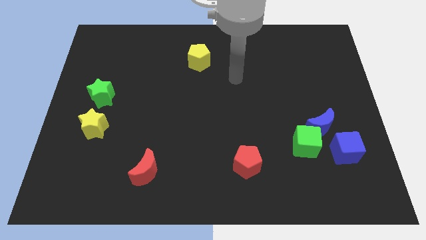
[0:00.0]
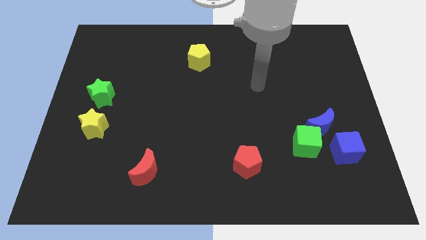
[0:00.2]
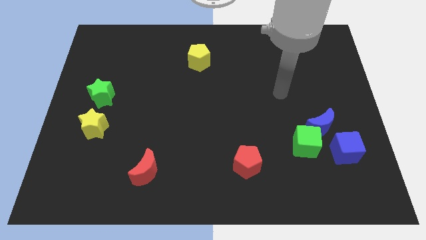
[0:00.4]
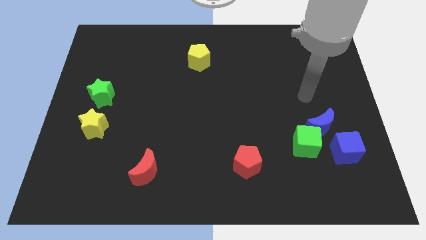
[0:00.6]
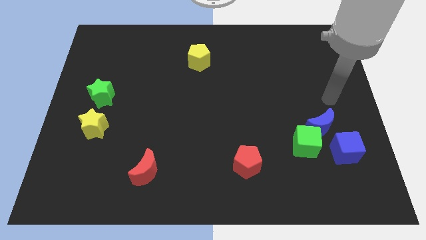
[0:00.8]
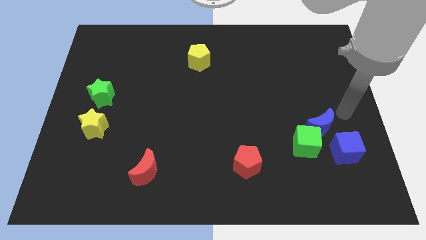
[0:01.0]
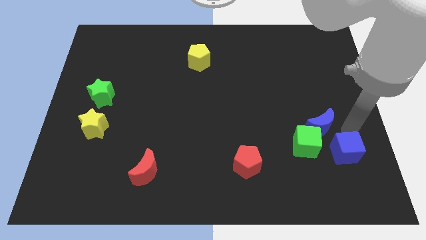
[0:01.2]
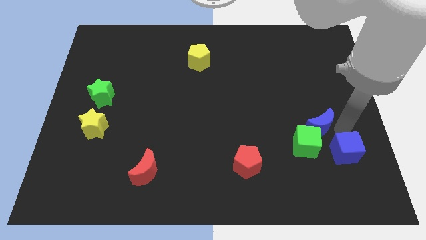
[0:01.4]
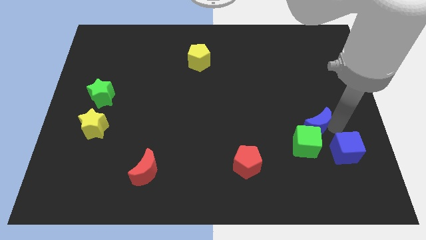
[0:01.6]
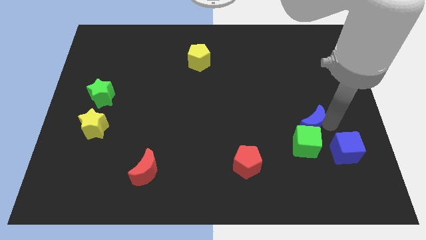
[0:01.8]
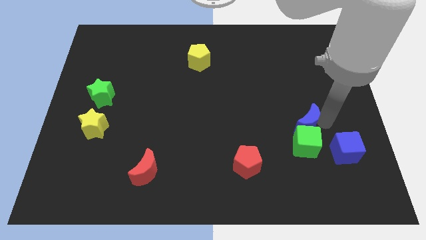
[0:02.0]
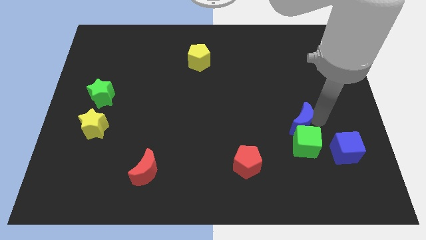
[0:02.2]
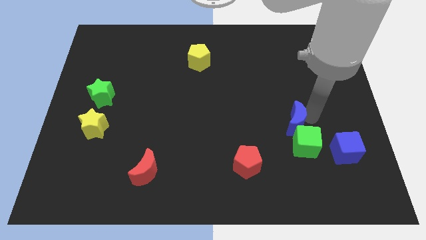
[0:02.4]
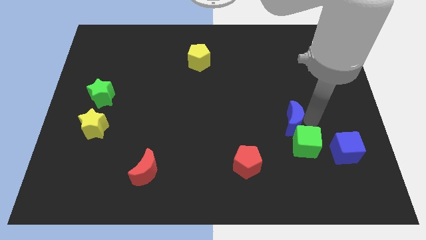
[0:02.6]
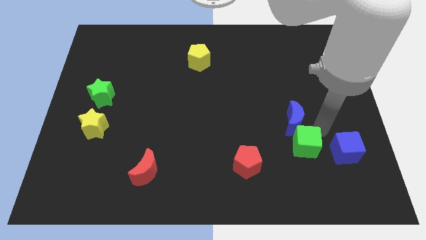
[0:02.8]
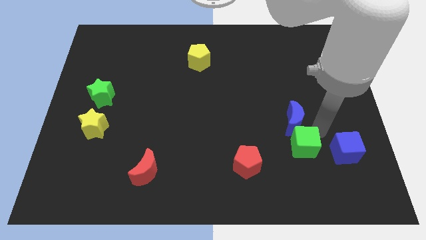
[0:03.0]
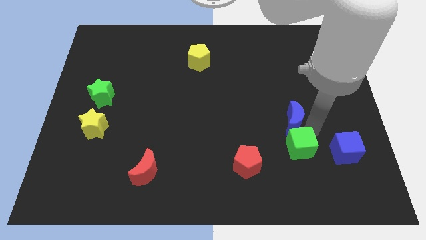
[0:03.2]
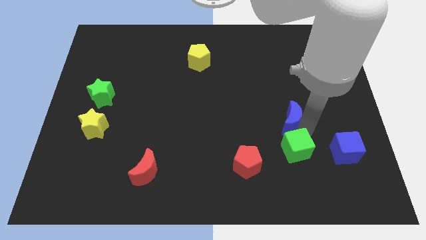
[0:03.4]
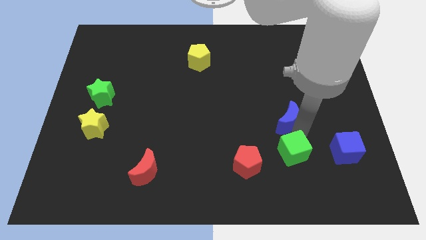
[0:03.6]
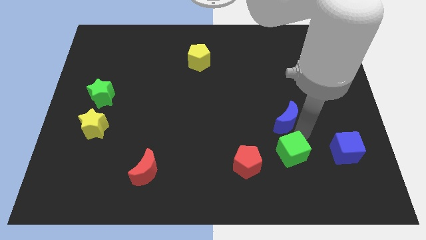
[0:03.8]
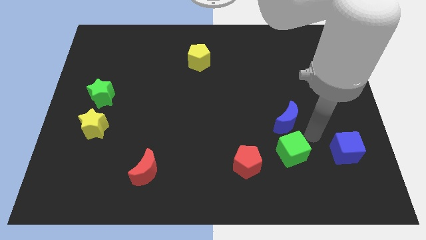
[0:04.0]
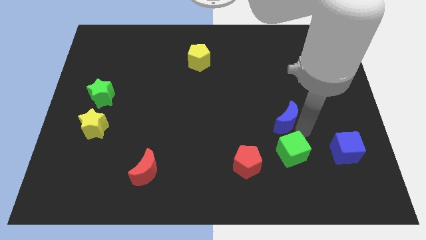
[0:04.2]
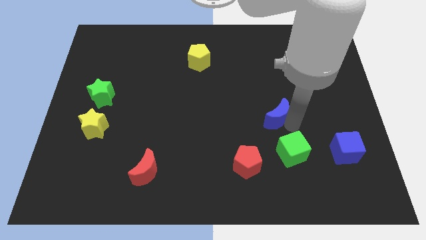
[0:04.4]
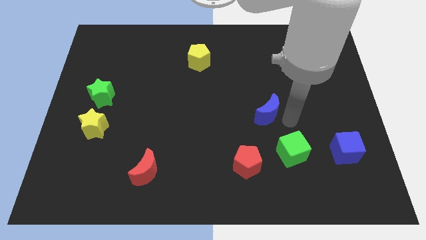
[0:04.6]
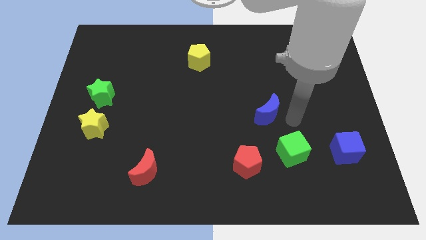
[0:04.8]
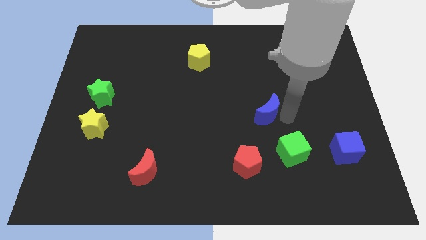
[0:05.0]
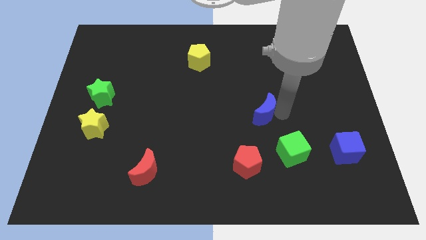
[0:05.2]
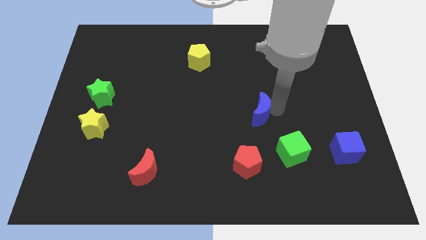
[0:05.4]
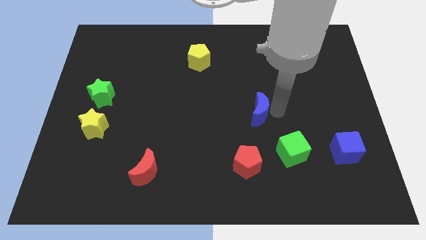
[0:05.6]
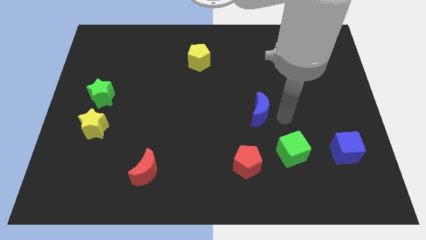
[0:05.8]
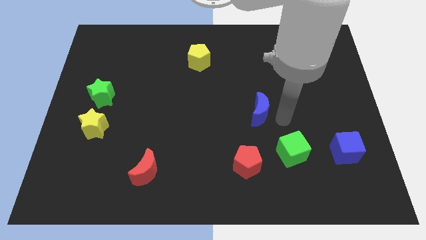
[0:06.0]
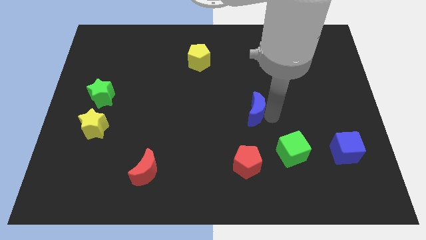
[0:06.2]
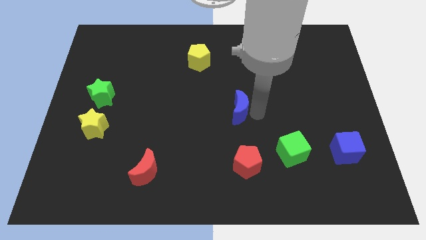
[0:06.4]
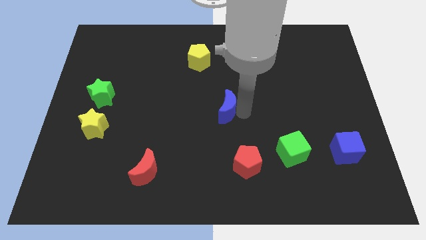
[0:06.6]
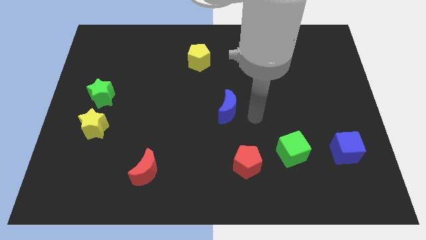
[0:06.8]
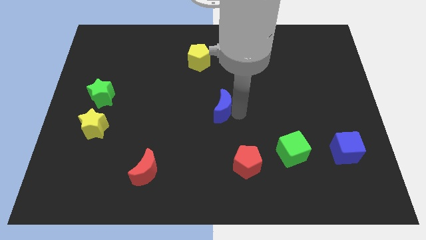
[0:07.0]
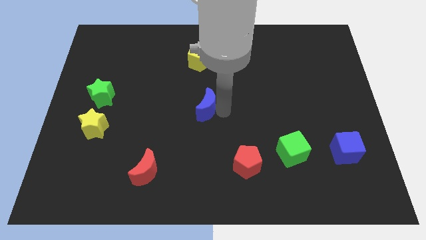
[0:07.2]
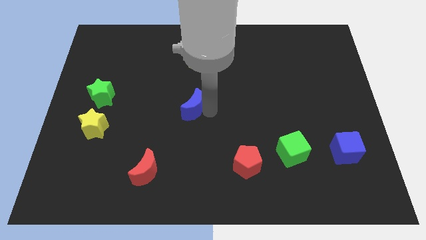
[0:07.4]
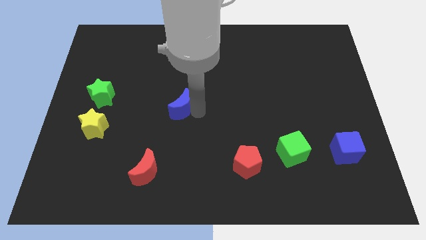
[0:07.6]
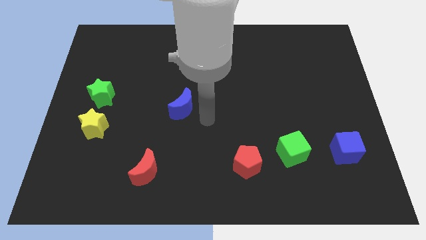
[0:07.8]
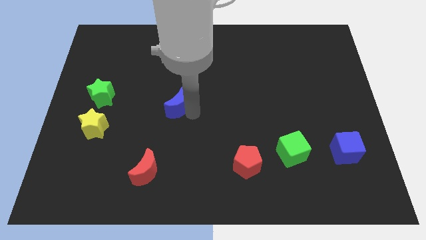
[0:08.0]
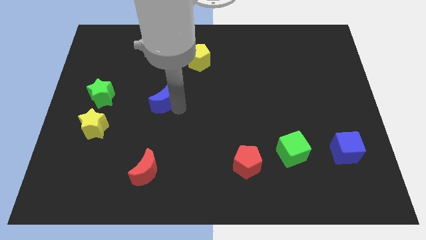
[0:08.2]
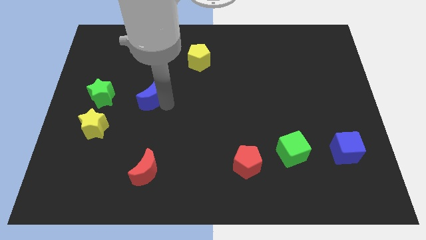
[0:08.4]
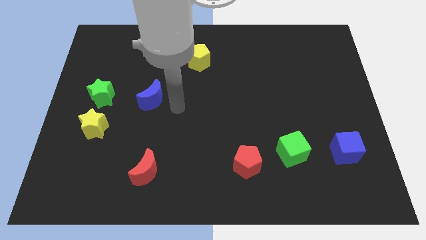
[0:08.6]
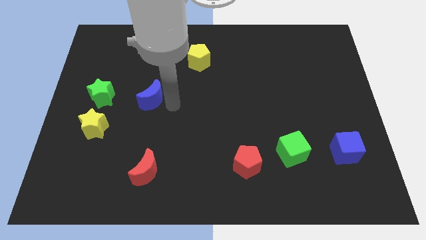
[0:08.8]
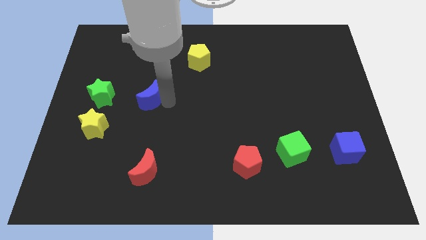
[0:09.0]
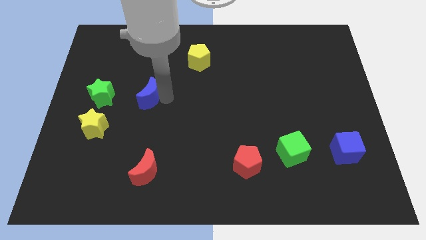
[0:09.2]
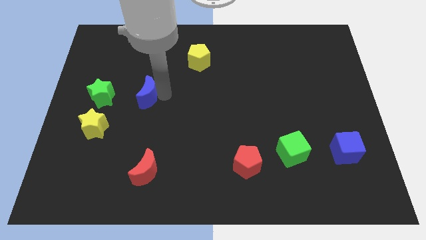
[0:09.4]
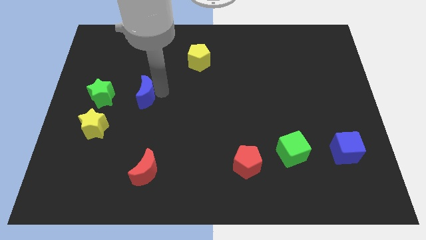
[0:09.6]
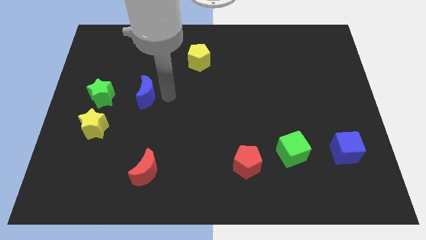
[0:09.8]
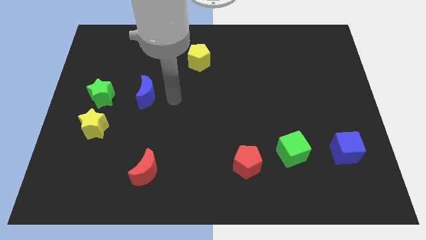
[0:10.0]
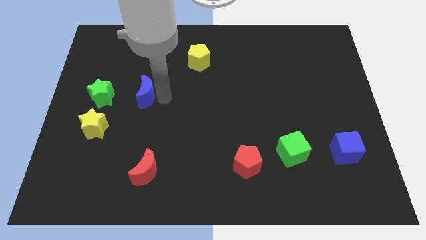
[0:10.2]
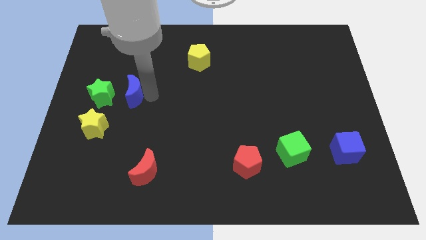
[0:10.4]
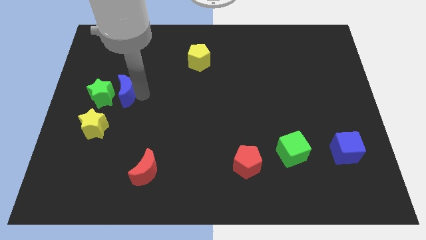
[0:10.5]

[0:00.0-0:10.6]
move the blue moon to the green star

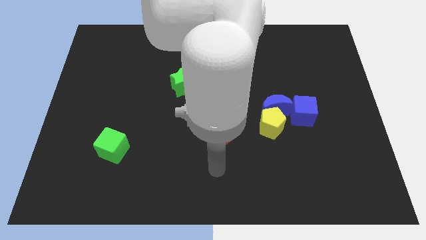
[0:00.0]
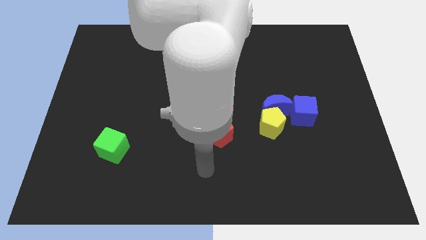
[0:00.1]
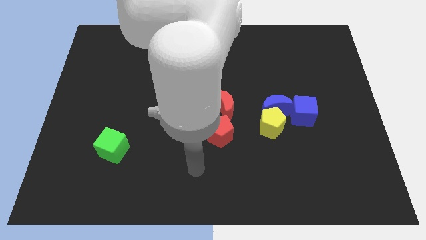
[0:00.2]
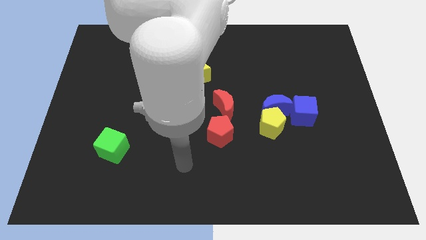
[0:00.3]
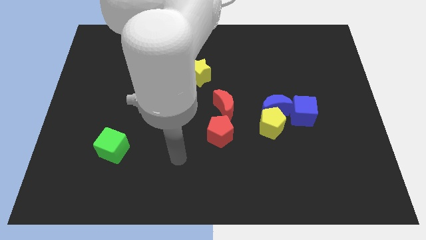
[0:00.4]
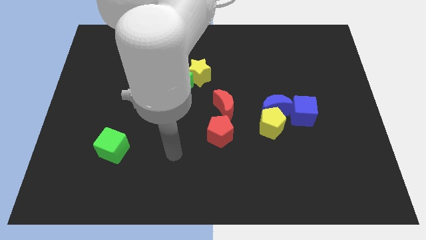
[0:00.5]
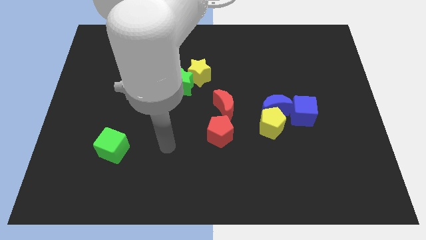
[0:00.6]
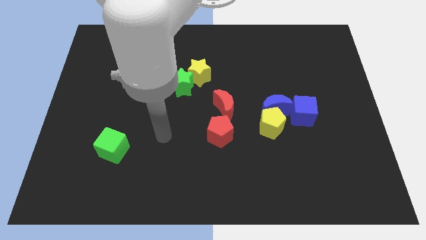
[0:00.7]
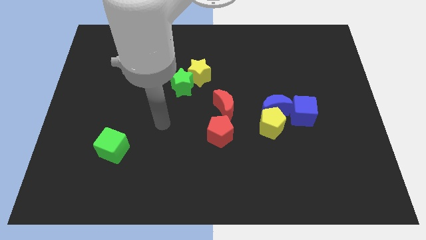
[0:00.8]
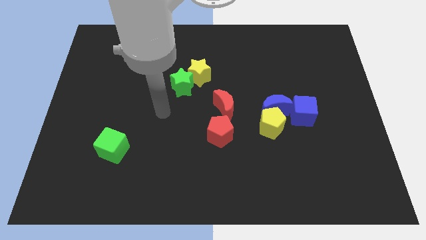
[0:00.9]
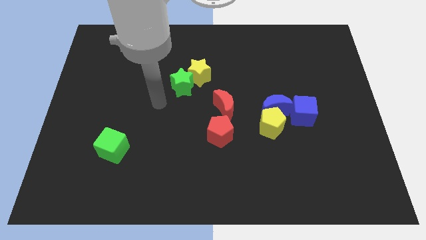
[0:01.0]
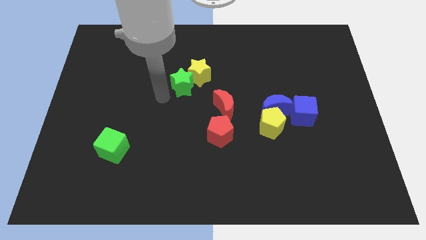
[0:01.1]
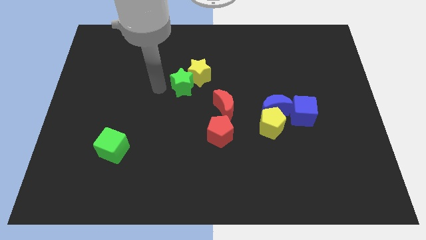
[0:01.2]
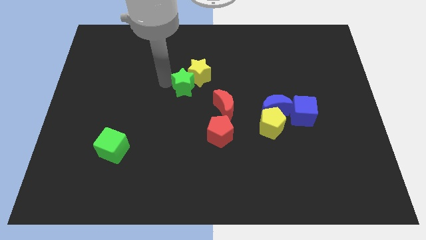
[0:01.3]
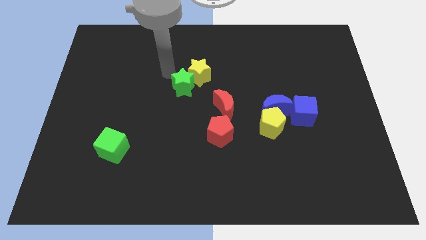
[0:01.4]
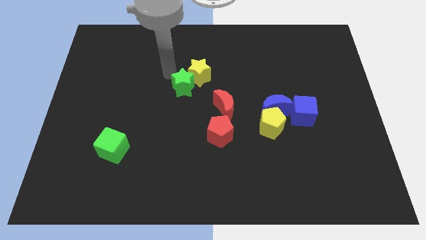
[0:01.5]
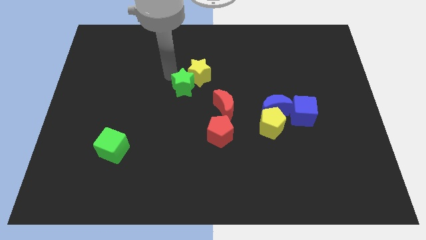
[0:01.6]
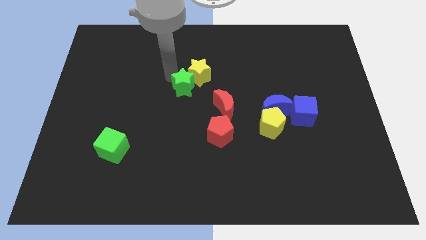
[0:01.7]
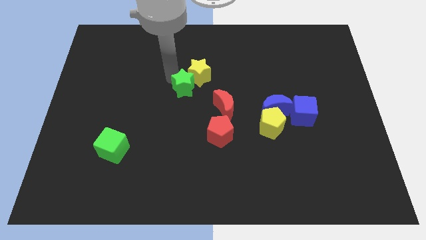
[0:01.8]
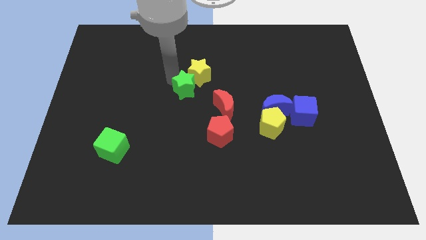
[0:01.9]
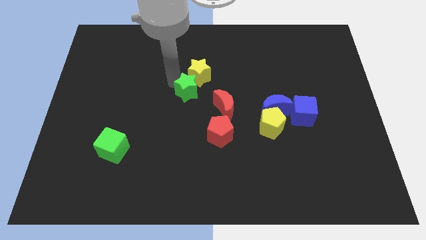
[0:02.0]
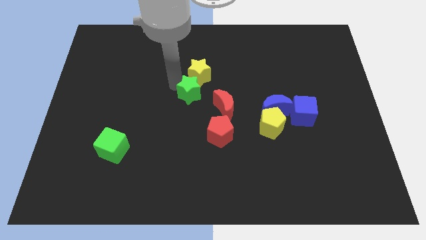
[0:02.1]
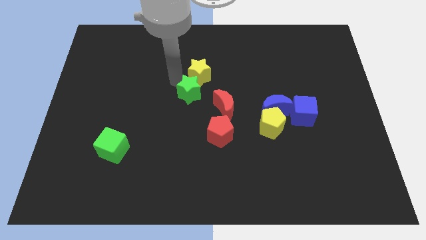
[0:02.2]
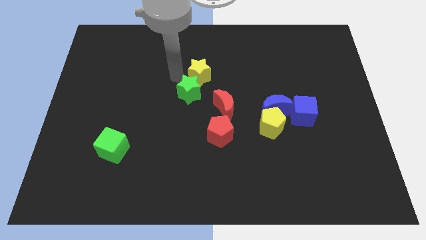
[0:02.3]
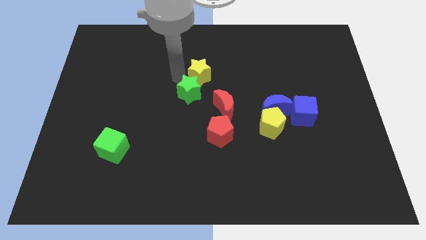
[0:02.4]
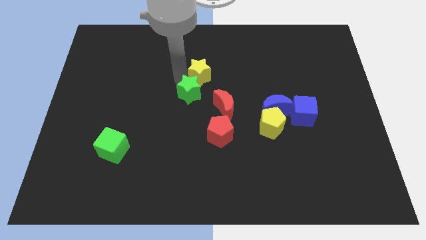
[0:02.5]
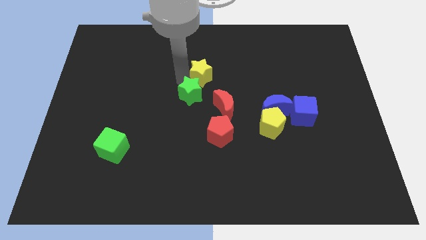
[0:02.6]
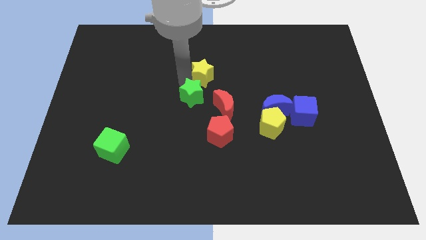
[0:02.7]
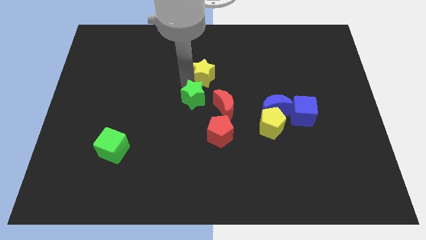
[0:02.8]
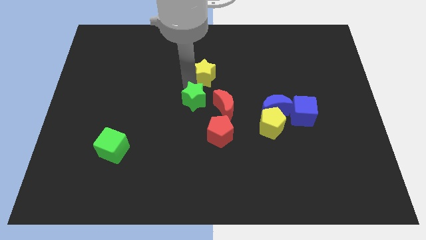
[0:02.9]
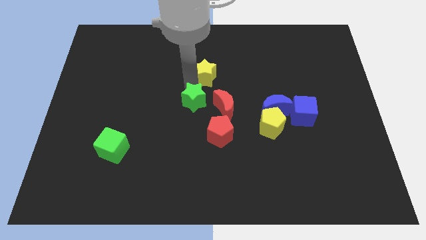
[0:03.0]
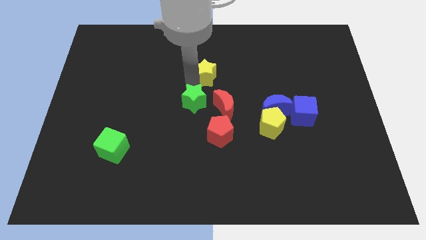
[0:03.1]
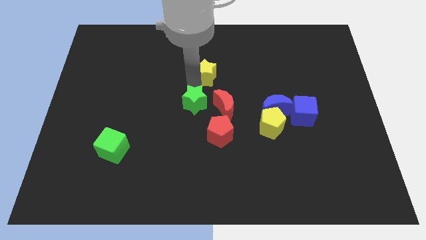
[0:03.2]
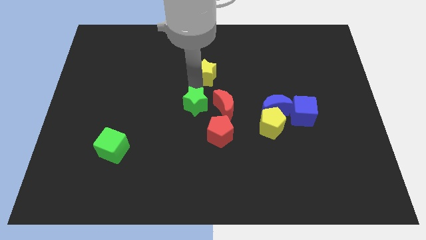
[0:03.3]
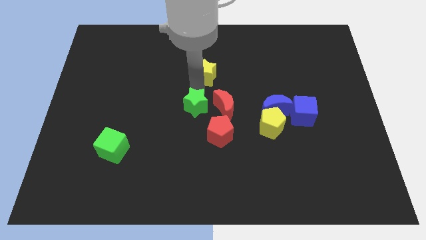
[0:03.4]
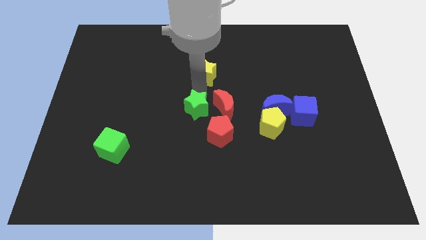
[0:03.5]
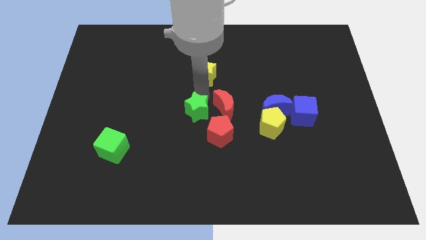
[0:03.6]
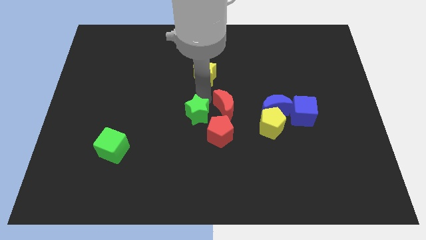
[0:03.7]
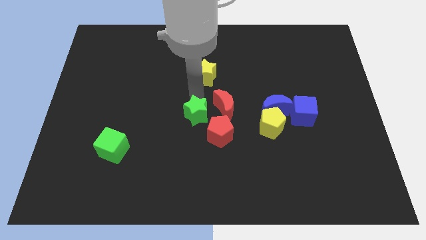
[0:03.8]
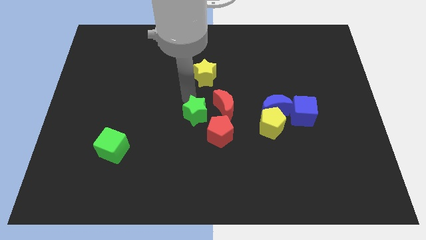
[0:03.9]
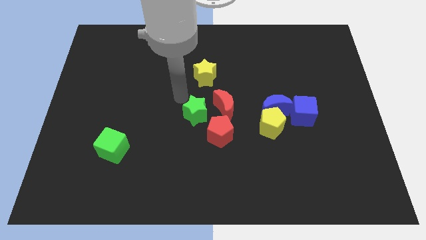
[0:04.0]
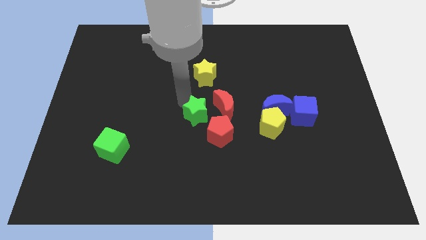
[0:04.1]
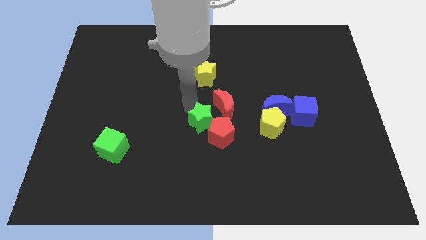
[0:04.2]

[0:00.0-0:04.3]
slide the green star next to the red pentagon
